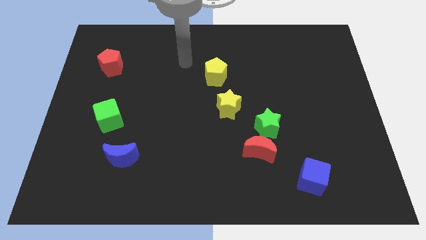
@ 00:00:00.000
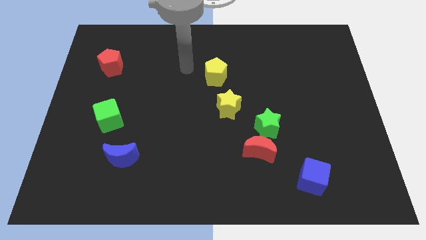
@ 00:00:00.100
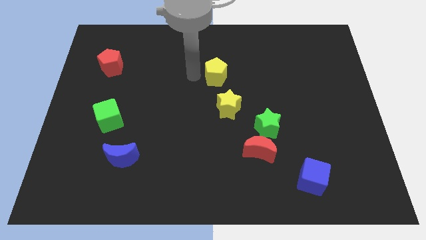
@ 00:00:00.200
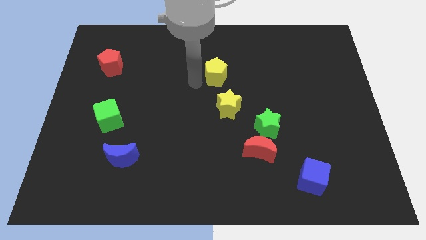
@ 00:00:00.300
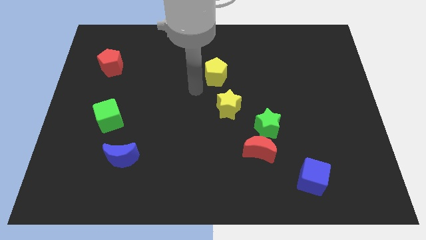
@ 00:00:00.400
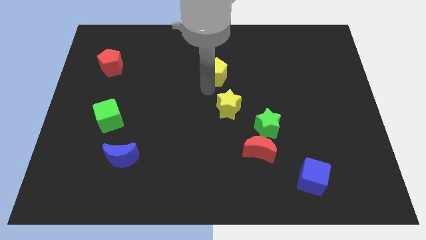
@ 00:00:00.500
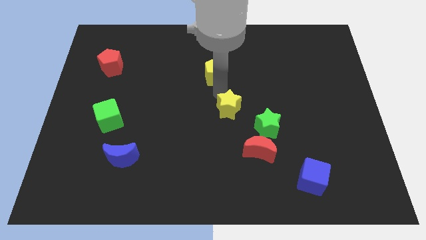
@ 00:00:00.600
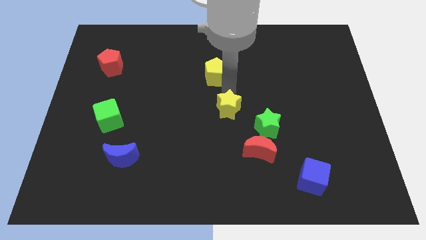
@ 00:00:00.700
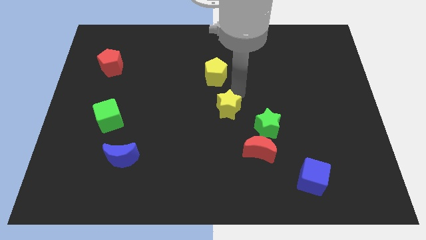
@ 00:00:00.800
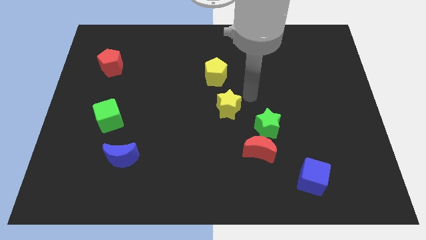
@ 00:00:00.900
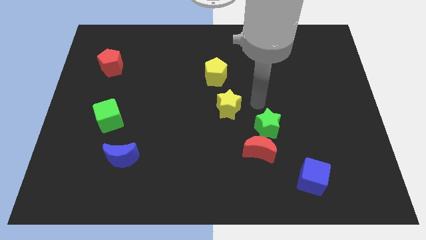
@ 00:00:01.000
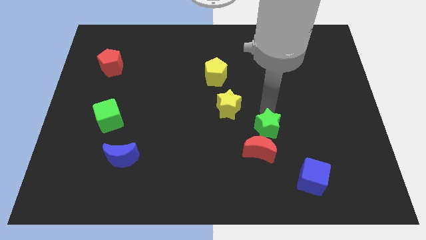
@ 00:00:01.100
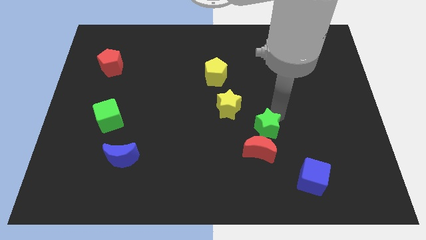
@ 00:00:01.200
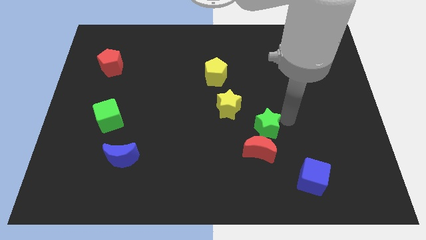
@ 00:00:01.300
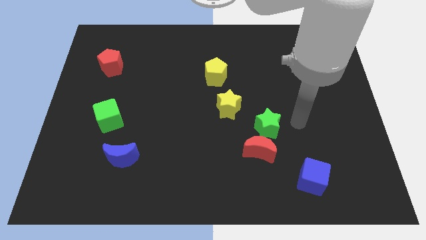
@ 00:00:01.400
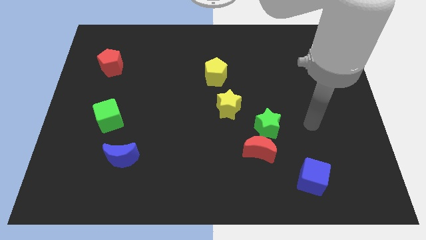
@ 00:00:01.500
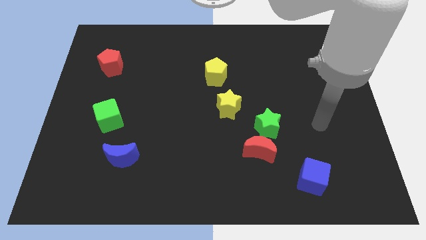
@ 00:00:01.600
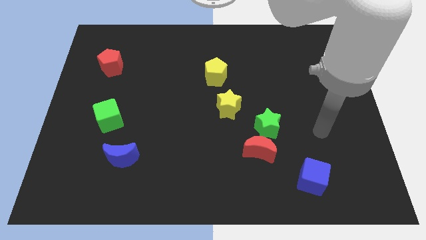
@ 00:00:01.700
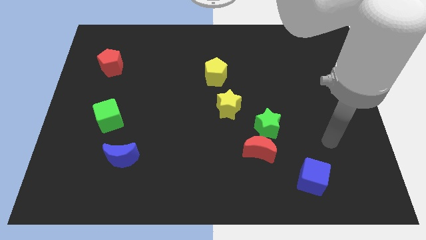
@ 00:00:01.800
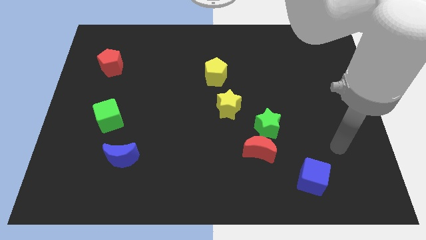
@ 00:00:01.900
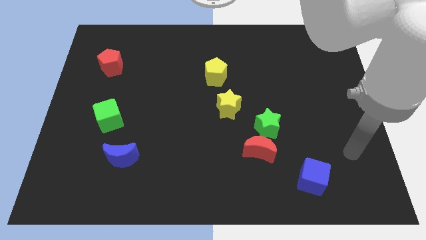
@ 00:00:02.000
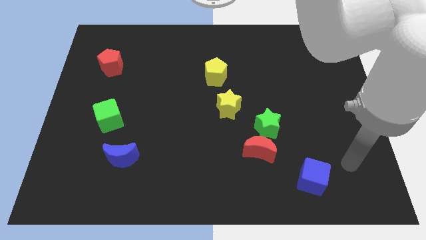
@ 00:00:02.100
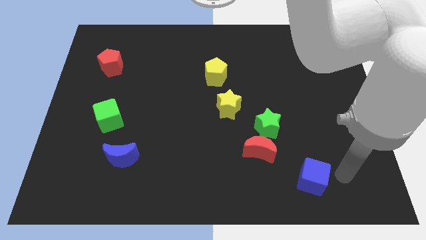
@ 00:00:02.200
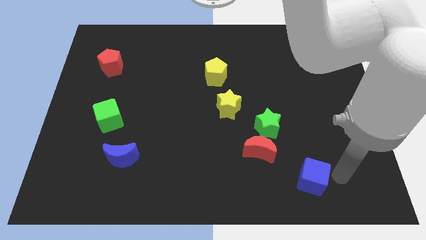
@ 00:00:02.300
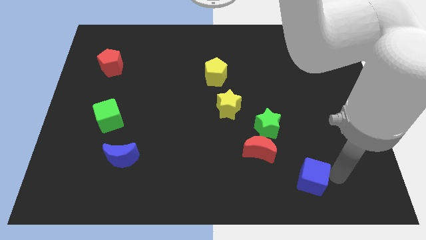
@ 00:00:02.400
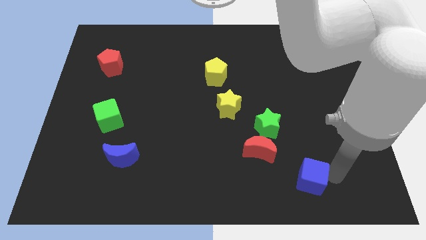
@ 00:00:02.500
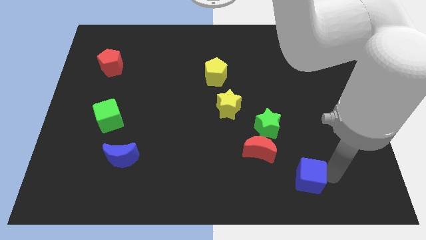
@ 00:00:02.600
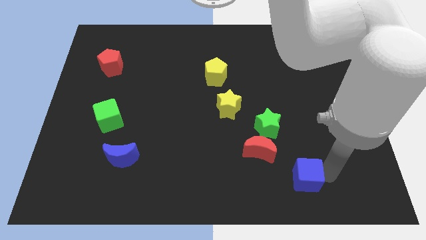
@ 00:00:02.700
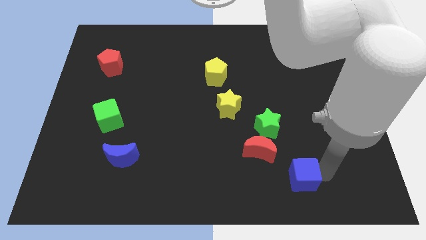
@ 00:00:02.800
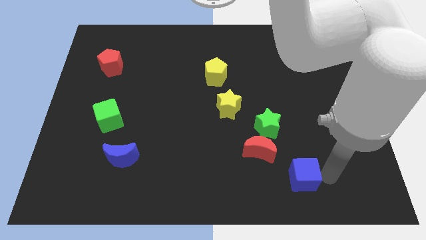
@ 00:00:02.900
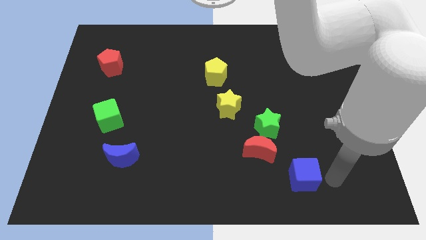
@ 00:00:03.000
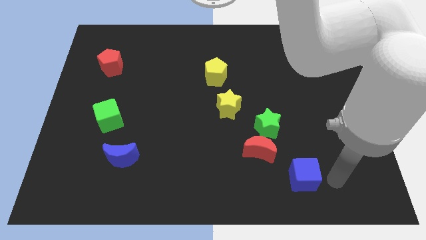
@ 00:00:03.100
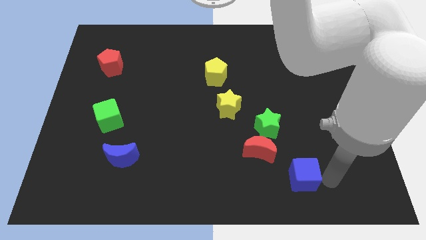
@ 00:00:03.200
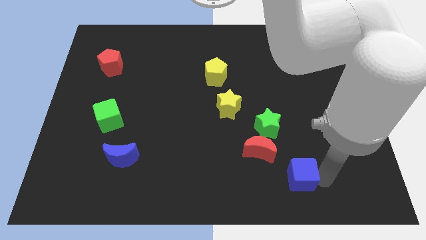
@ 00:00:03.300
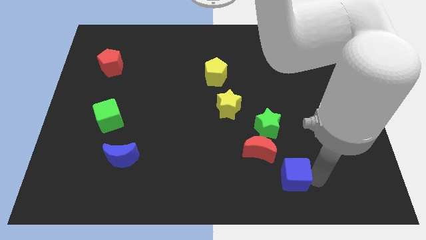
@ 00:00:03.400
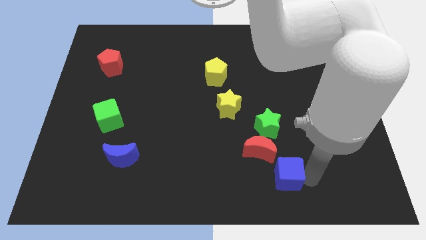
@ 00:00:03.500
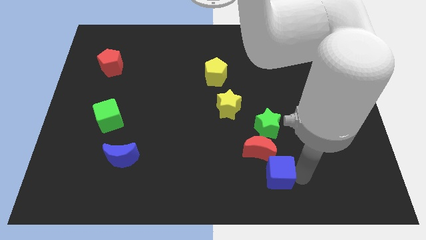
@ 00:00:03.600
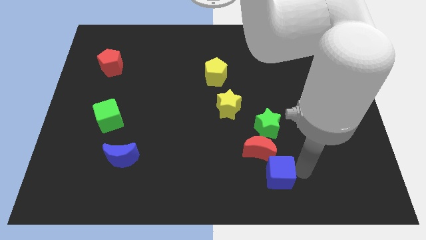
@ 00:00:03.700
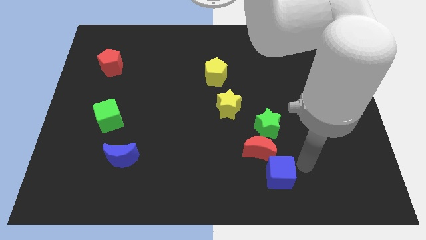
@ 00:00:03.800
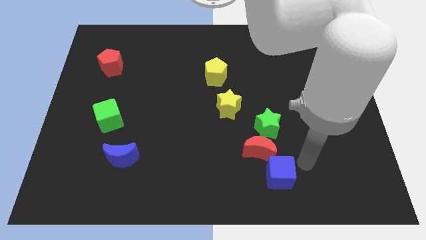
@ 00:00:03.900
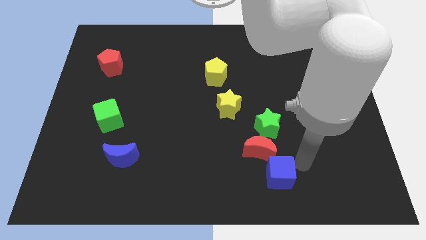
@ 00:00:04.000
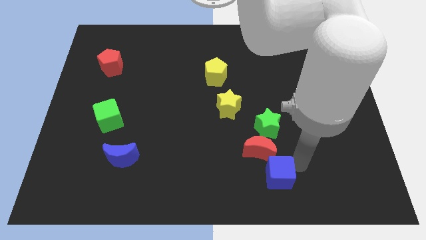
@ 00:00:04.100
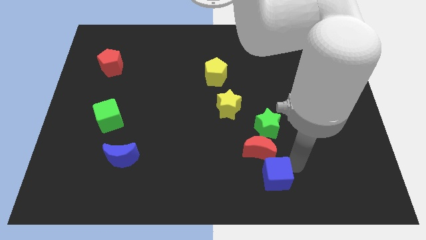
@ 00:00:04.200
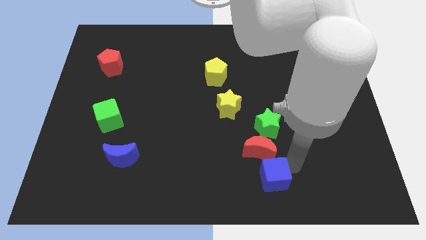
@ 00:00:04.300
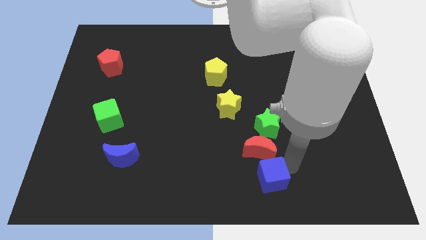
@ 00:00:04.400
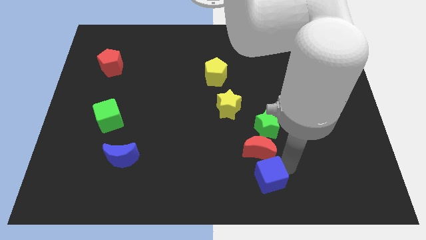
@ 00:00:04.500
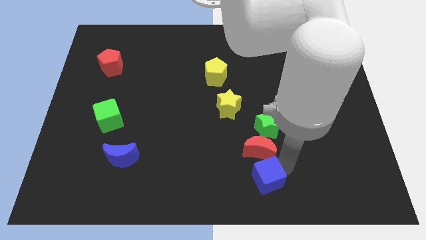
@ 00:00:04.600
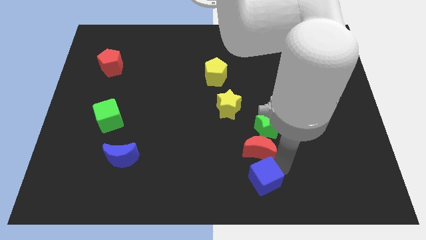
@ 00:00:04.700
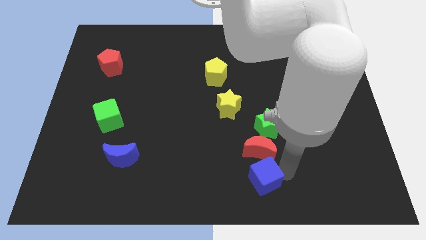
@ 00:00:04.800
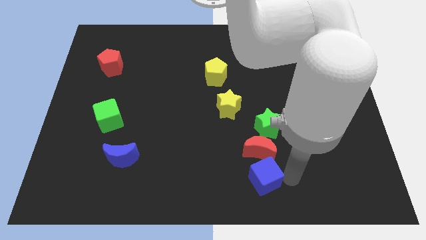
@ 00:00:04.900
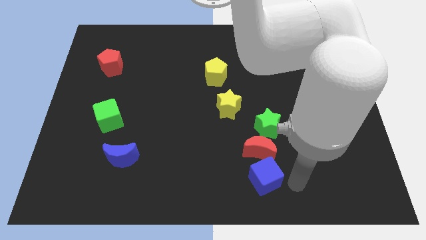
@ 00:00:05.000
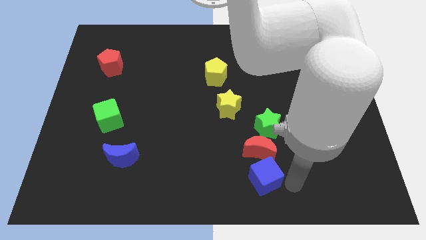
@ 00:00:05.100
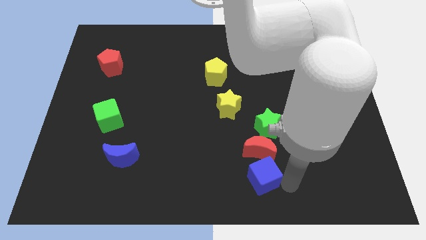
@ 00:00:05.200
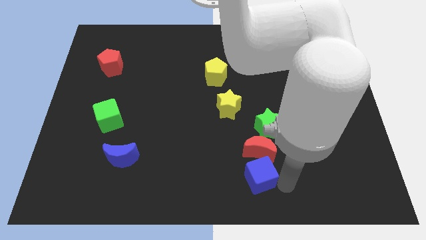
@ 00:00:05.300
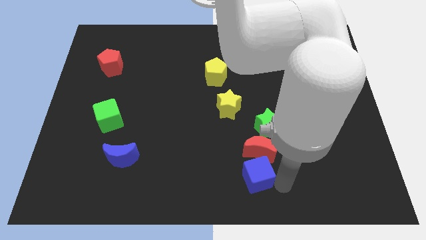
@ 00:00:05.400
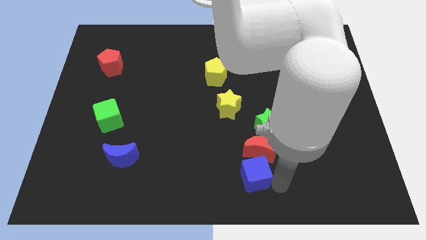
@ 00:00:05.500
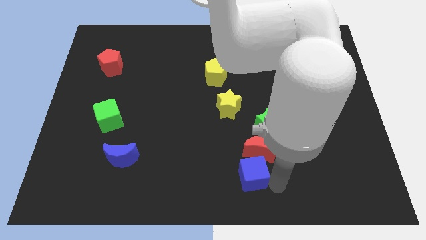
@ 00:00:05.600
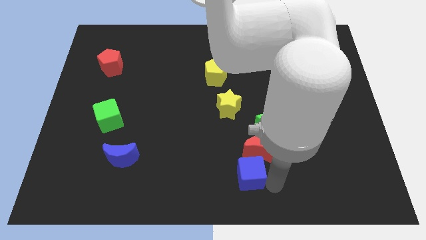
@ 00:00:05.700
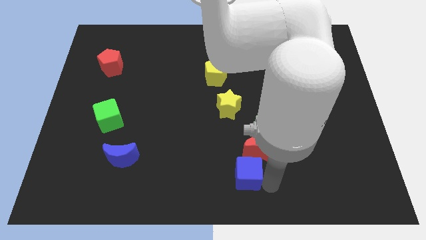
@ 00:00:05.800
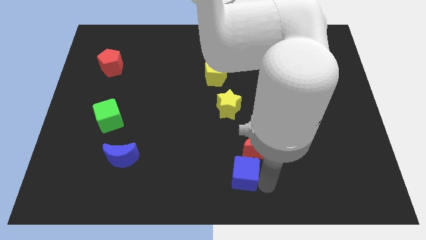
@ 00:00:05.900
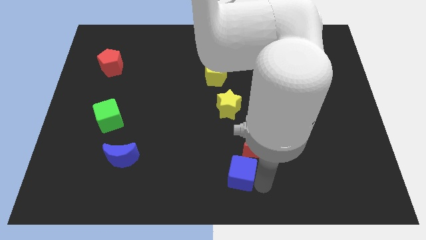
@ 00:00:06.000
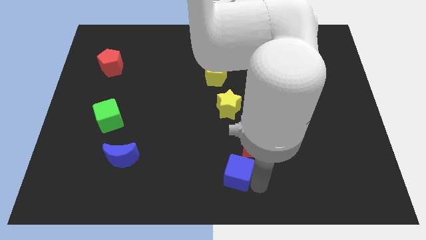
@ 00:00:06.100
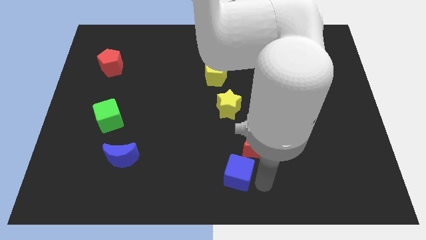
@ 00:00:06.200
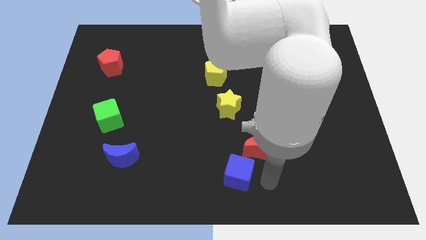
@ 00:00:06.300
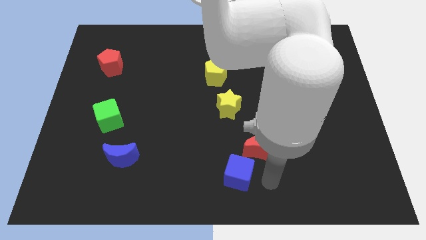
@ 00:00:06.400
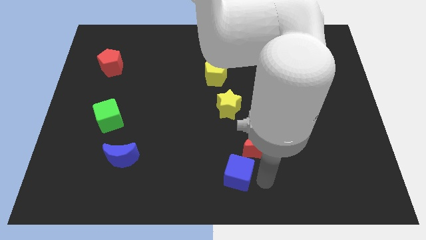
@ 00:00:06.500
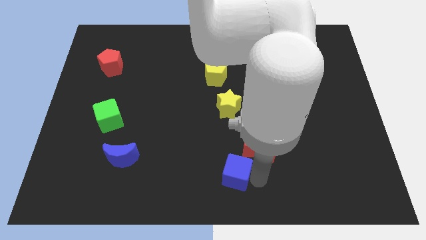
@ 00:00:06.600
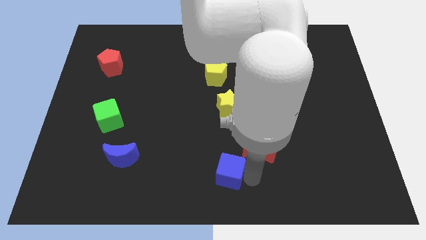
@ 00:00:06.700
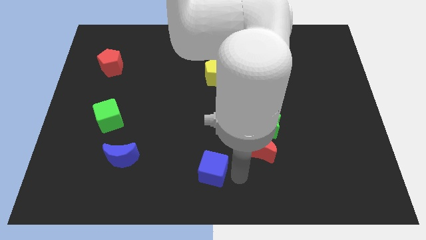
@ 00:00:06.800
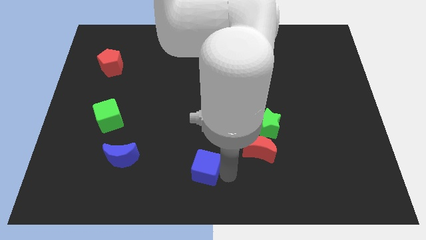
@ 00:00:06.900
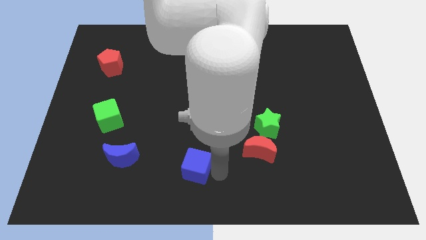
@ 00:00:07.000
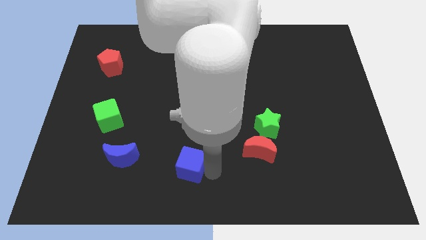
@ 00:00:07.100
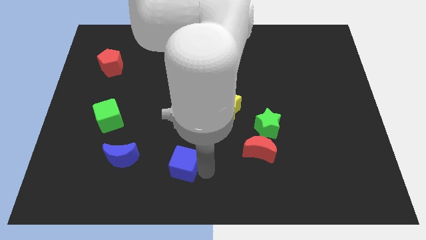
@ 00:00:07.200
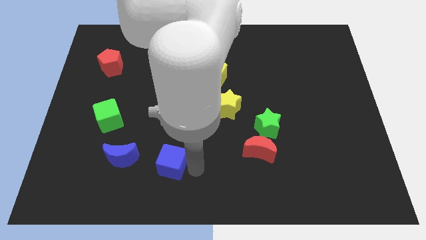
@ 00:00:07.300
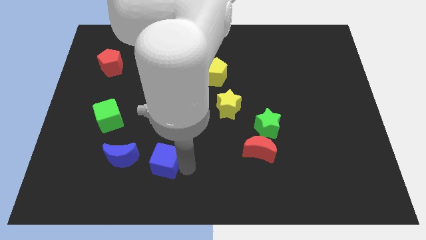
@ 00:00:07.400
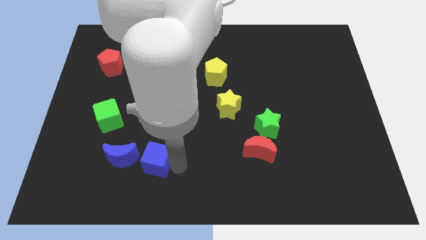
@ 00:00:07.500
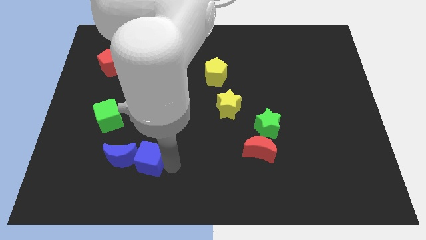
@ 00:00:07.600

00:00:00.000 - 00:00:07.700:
move the blue cube next to the blue moon
